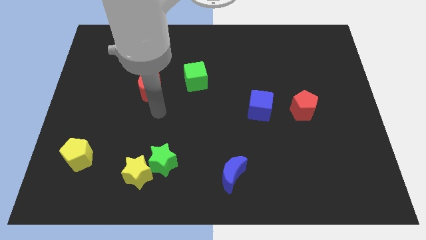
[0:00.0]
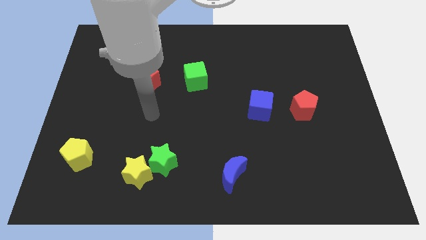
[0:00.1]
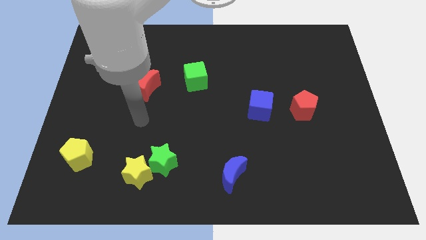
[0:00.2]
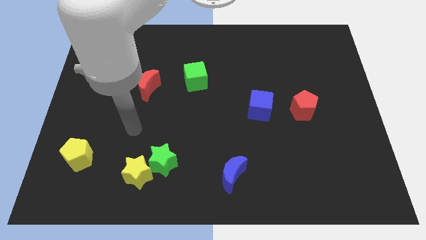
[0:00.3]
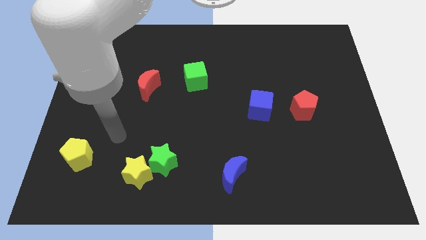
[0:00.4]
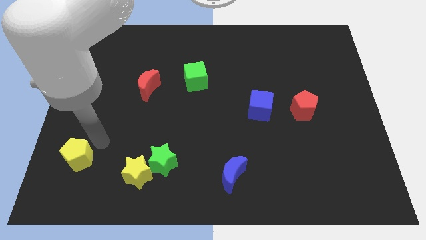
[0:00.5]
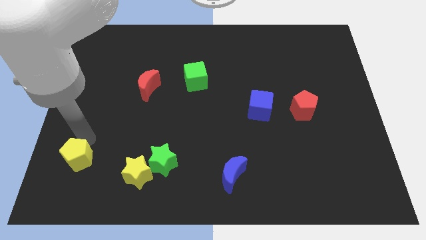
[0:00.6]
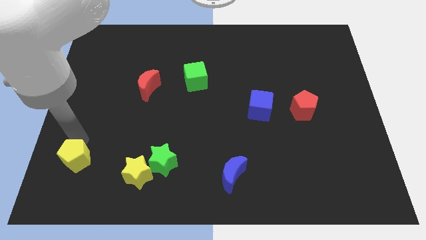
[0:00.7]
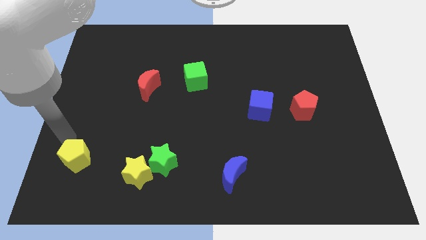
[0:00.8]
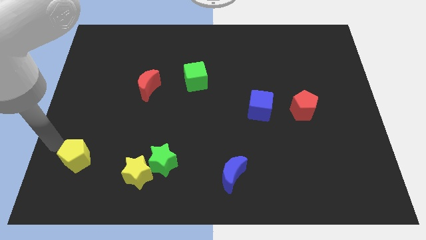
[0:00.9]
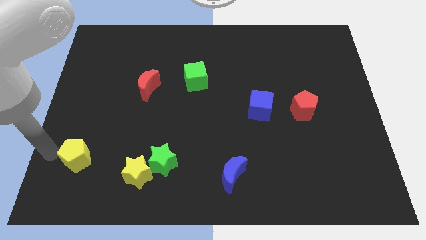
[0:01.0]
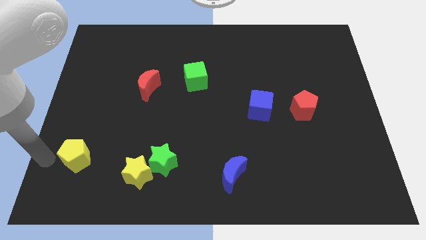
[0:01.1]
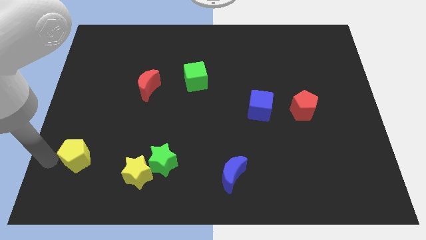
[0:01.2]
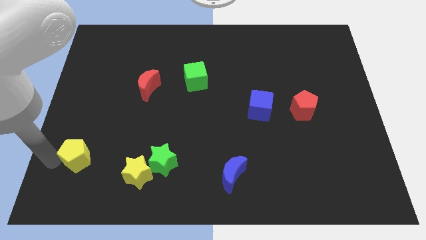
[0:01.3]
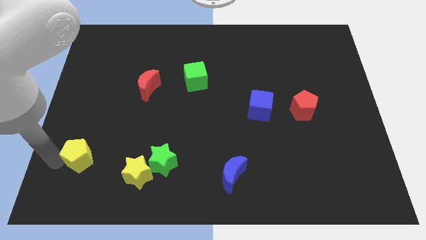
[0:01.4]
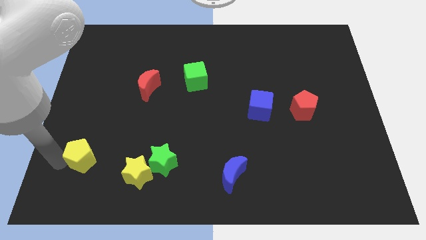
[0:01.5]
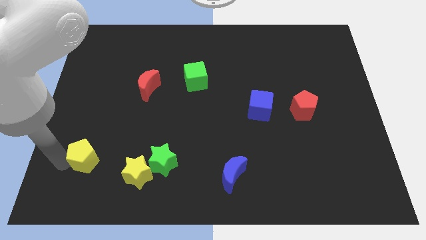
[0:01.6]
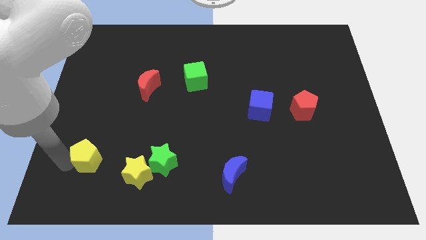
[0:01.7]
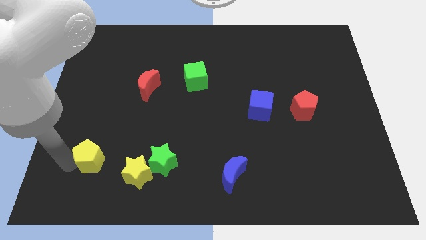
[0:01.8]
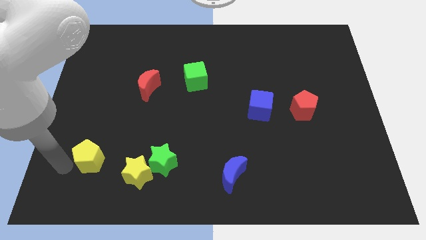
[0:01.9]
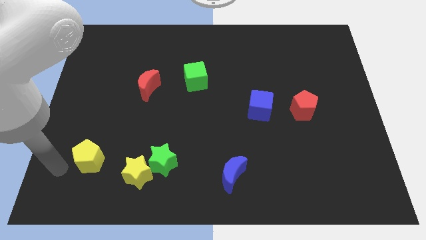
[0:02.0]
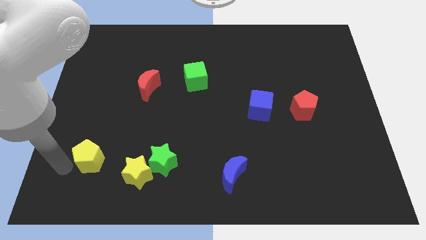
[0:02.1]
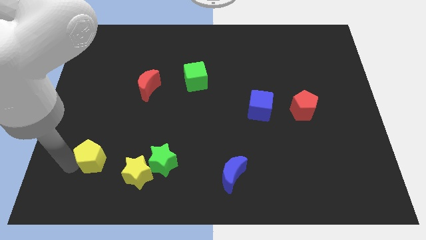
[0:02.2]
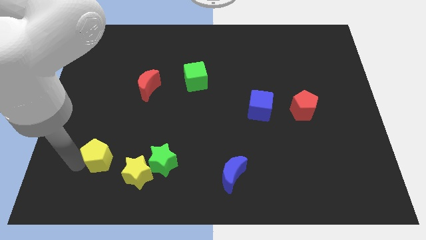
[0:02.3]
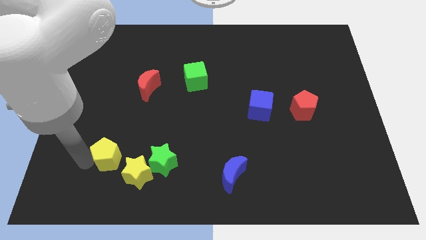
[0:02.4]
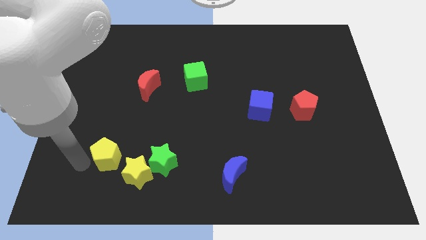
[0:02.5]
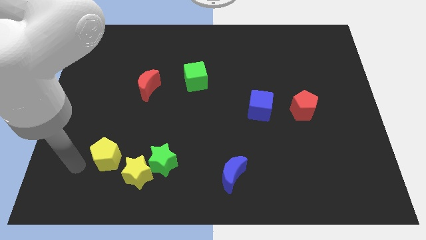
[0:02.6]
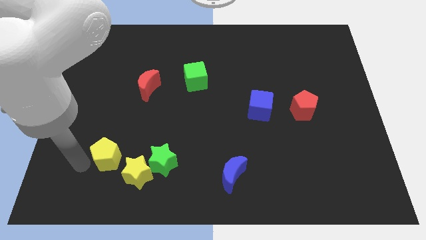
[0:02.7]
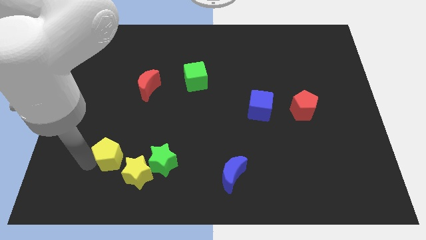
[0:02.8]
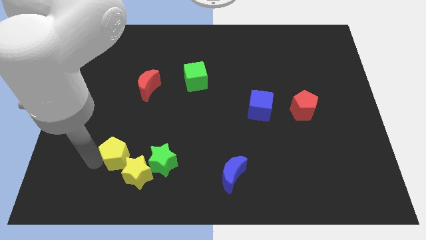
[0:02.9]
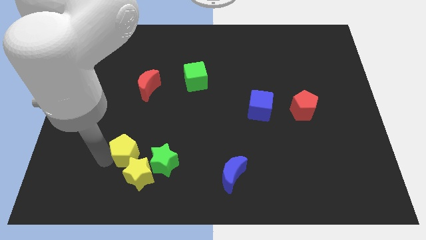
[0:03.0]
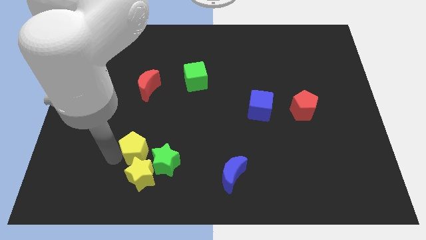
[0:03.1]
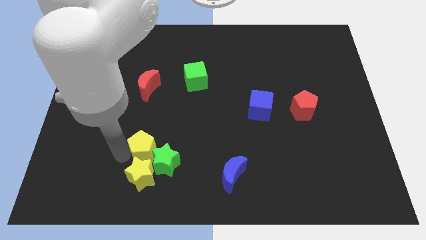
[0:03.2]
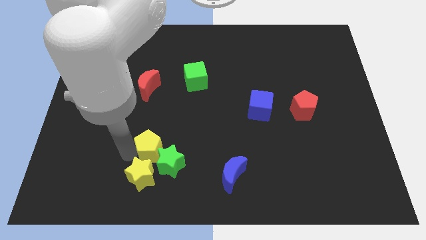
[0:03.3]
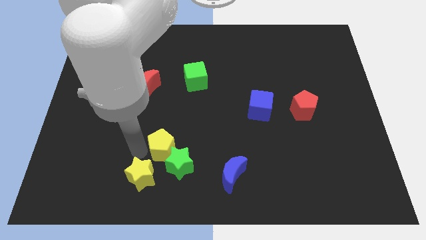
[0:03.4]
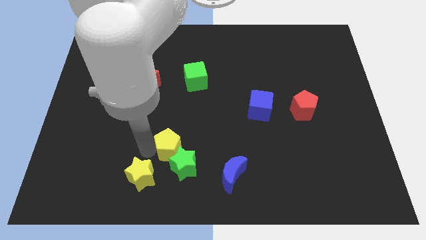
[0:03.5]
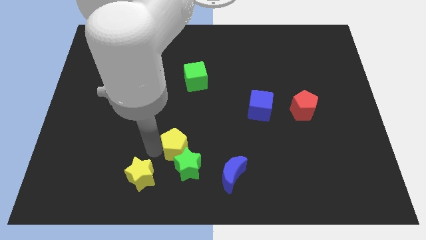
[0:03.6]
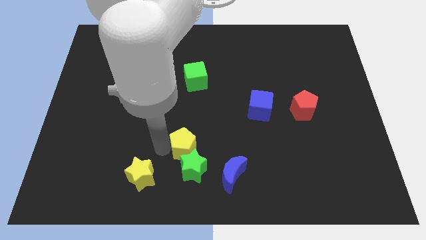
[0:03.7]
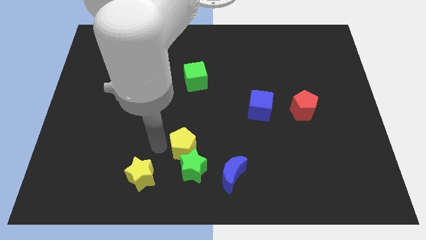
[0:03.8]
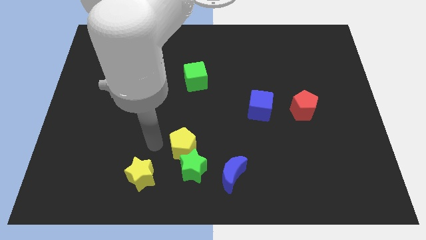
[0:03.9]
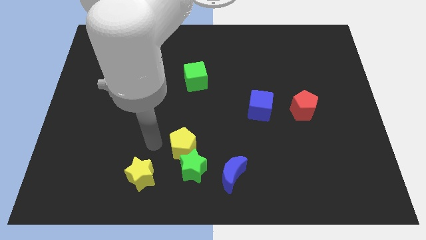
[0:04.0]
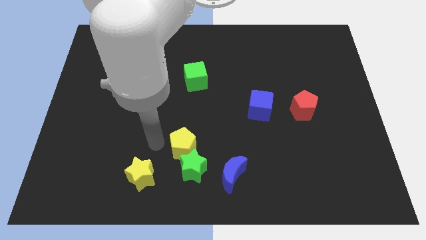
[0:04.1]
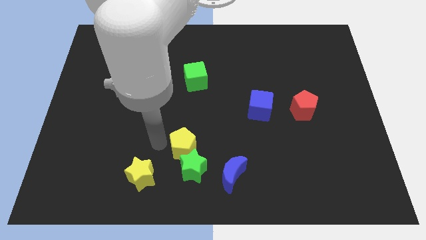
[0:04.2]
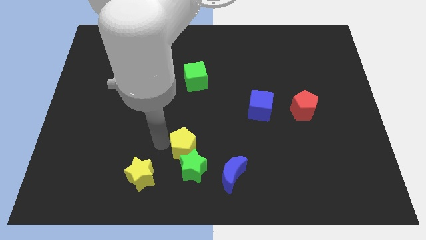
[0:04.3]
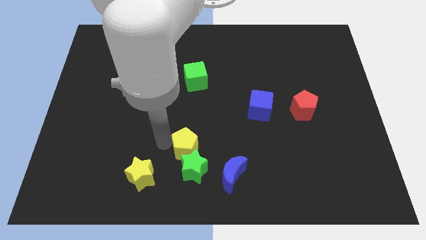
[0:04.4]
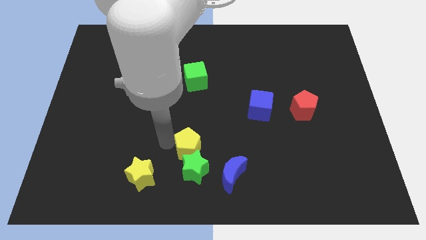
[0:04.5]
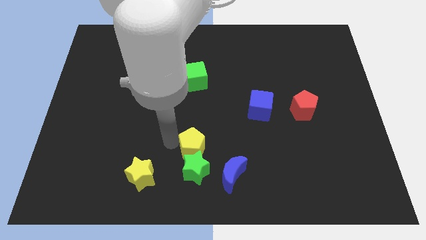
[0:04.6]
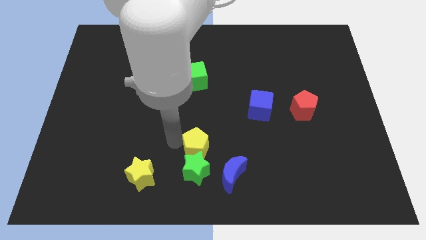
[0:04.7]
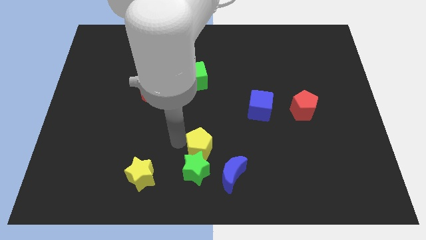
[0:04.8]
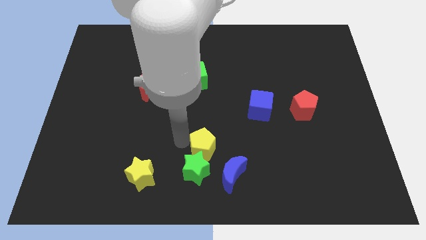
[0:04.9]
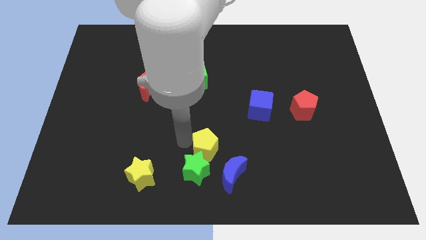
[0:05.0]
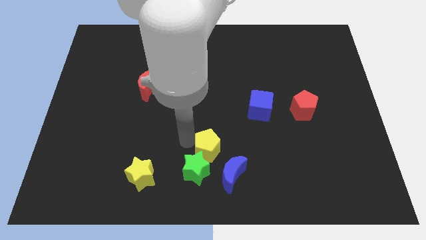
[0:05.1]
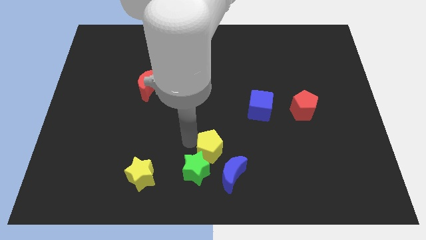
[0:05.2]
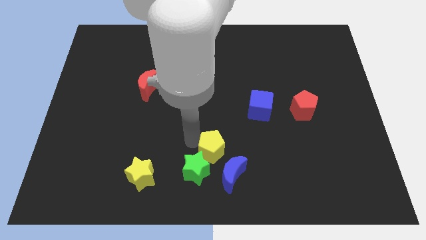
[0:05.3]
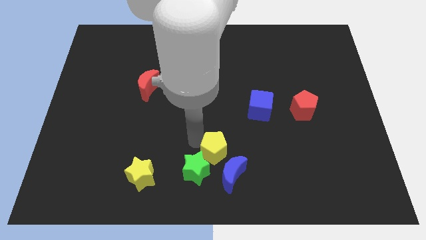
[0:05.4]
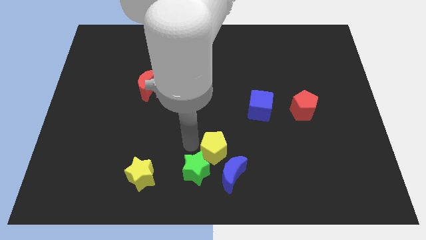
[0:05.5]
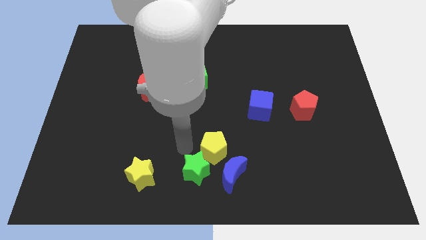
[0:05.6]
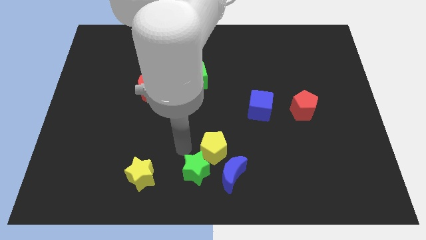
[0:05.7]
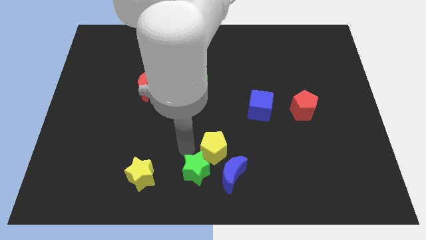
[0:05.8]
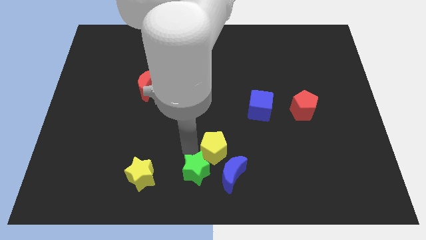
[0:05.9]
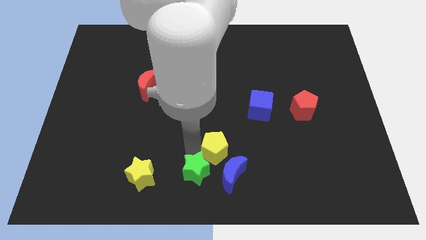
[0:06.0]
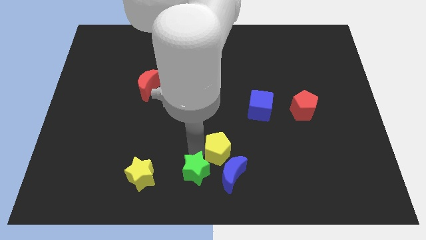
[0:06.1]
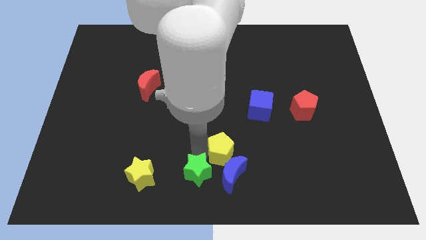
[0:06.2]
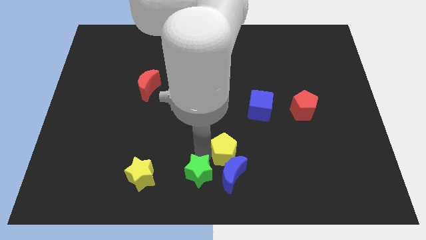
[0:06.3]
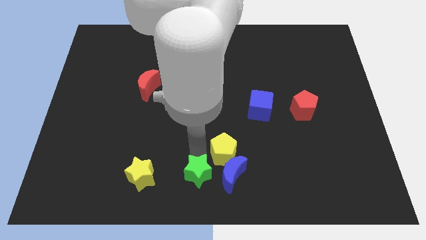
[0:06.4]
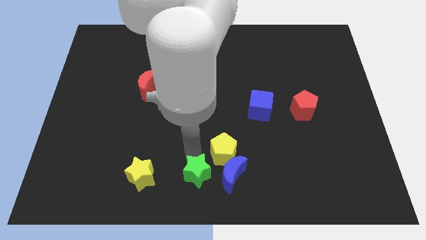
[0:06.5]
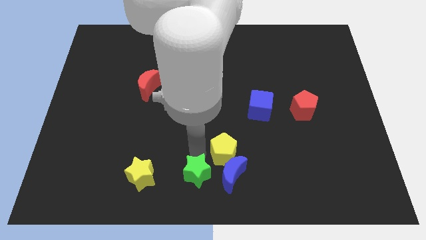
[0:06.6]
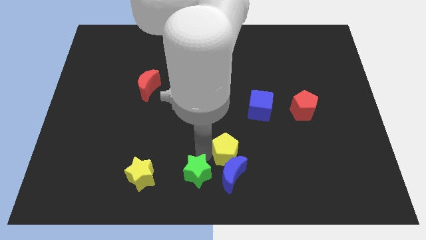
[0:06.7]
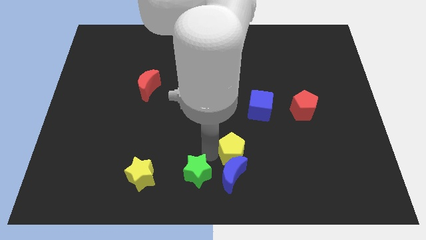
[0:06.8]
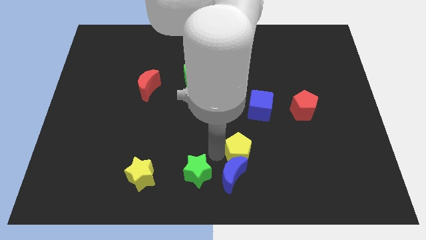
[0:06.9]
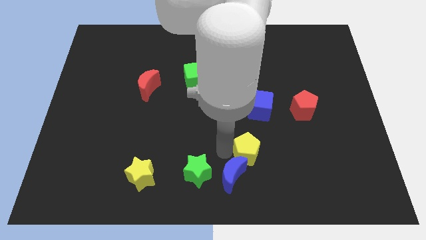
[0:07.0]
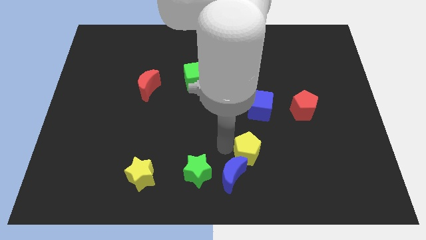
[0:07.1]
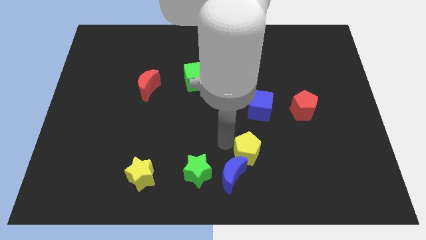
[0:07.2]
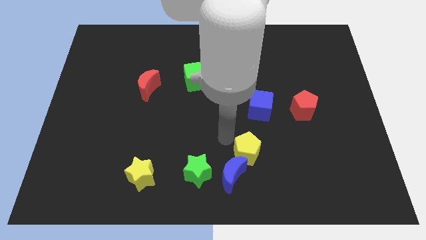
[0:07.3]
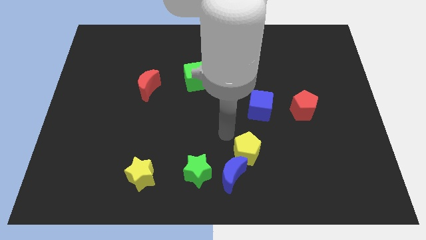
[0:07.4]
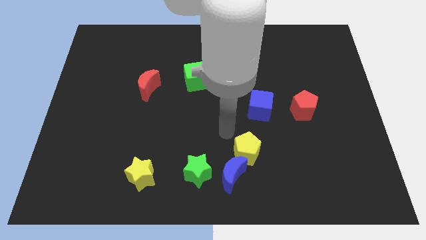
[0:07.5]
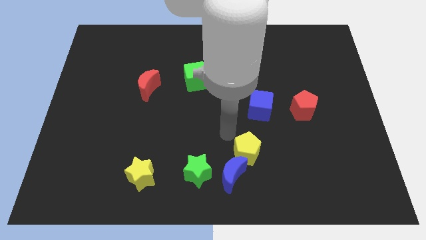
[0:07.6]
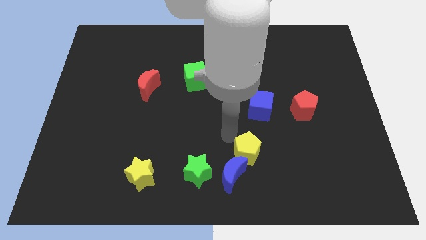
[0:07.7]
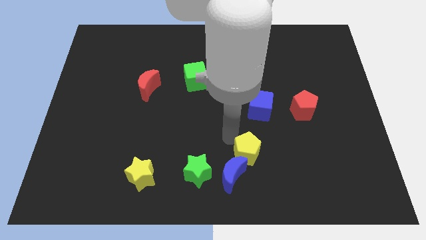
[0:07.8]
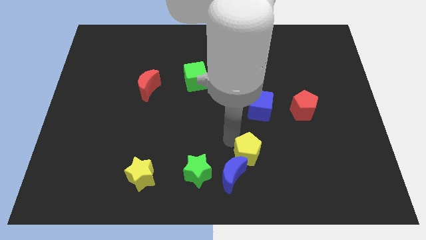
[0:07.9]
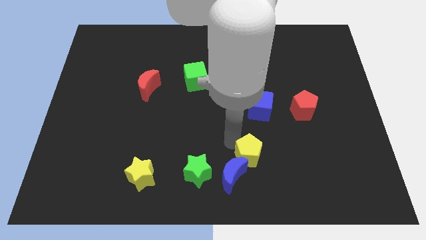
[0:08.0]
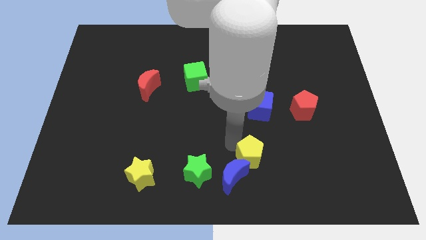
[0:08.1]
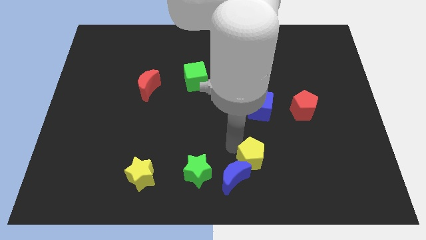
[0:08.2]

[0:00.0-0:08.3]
move the yellow pentagon to the right side of the blue moon
